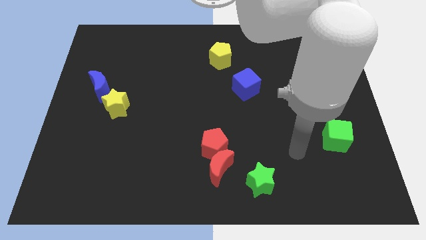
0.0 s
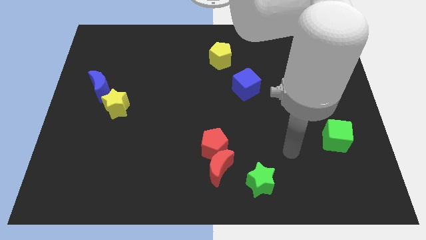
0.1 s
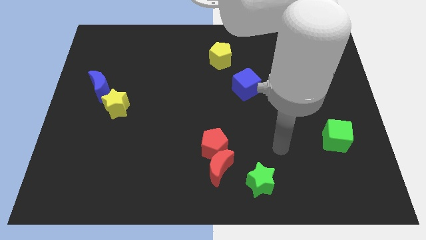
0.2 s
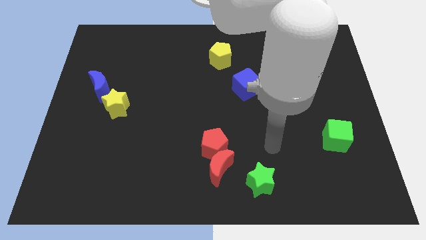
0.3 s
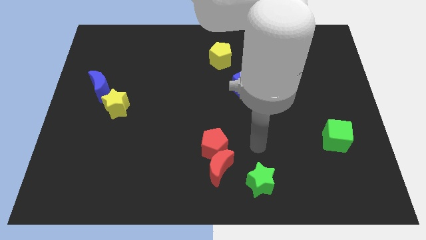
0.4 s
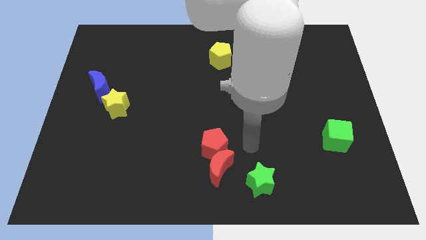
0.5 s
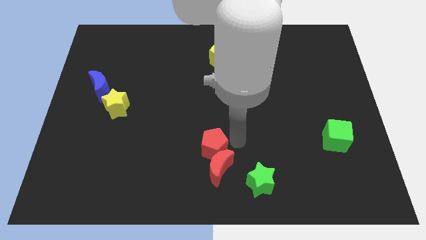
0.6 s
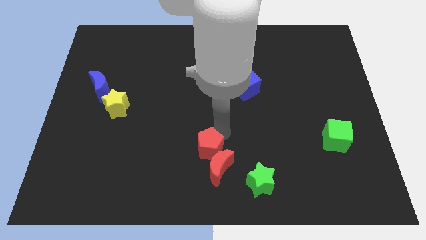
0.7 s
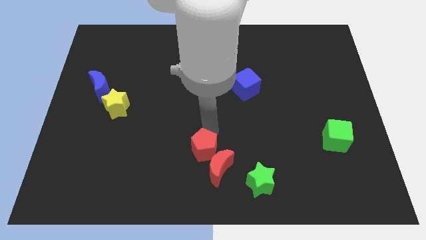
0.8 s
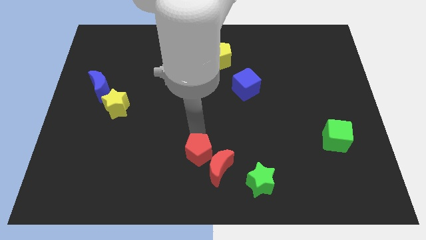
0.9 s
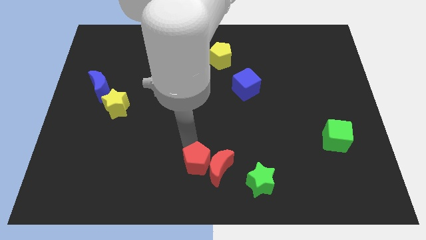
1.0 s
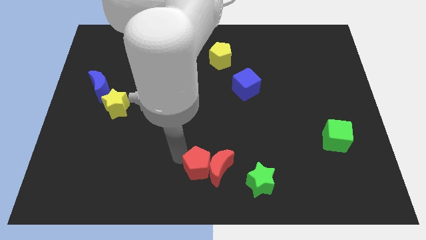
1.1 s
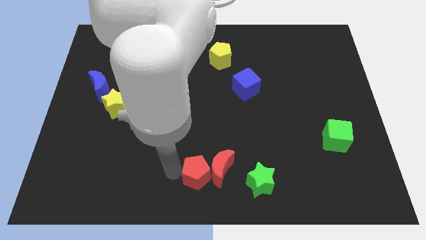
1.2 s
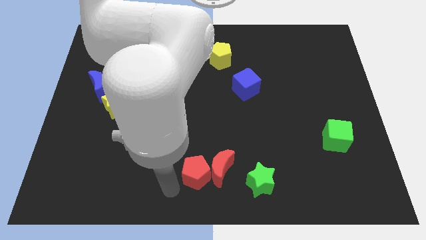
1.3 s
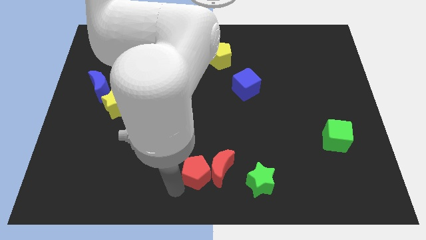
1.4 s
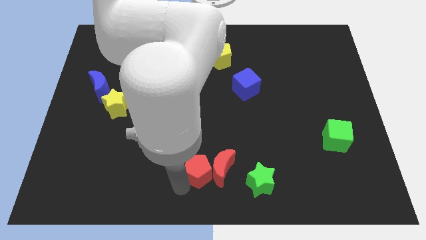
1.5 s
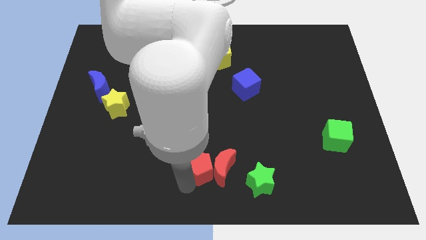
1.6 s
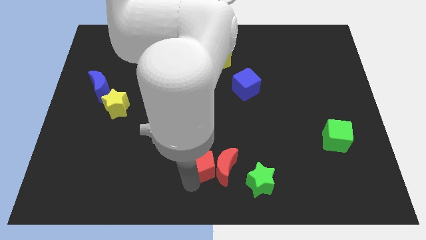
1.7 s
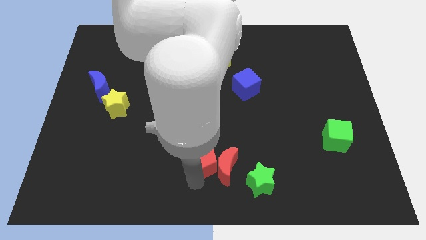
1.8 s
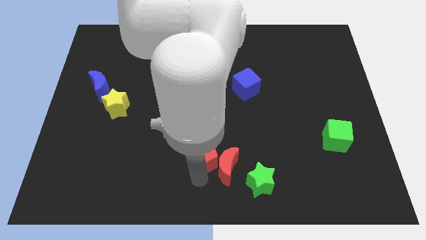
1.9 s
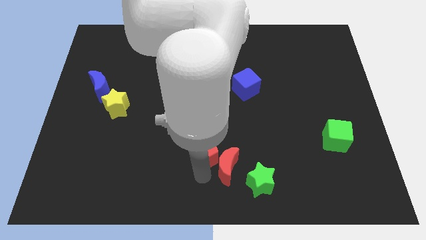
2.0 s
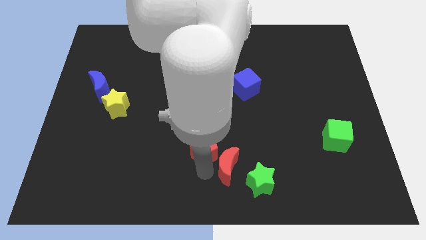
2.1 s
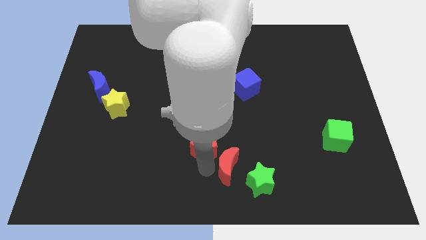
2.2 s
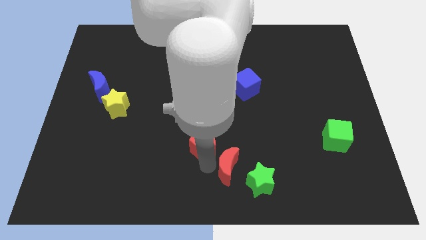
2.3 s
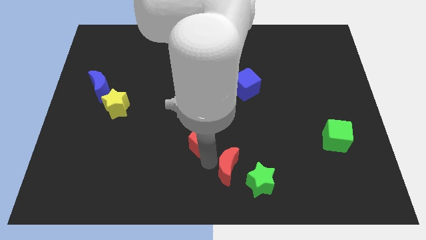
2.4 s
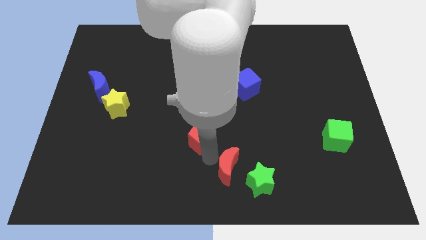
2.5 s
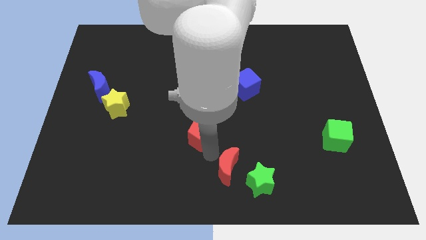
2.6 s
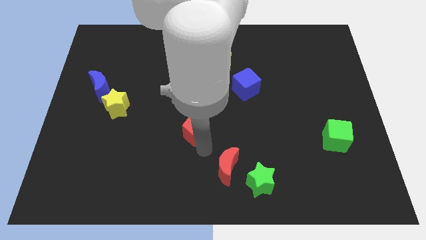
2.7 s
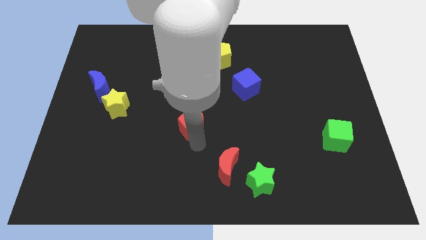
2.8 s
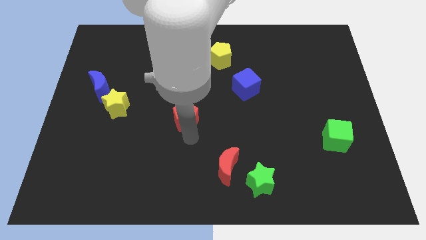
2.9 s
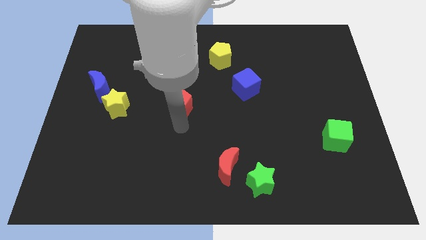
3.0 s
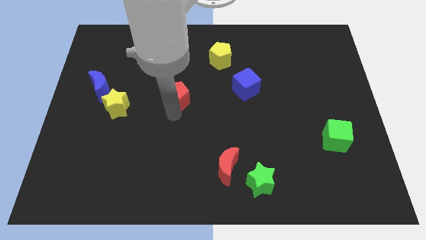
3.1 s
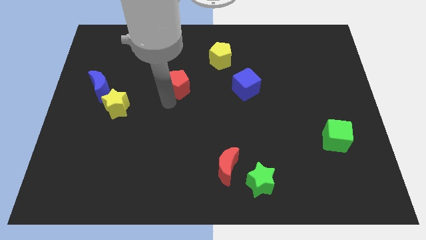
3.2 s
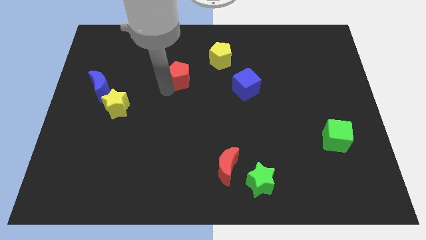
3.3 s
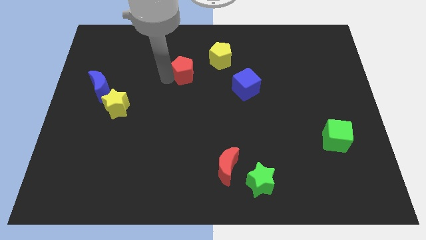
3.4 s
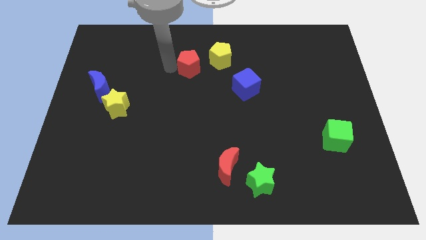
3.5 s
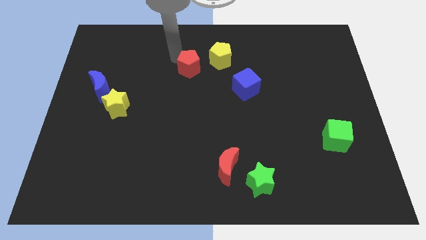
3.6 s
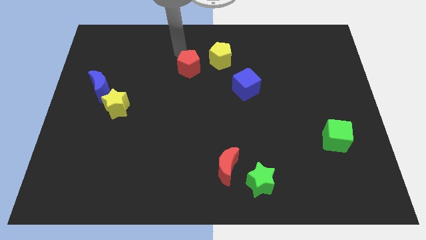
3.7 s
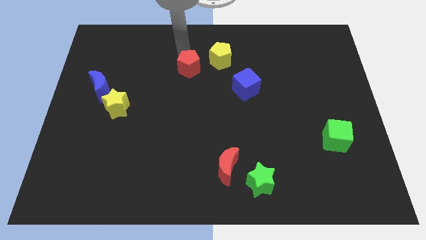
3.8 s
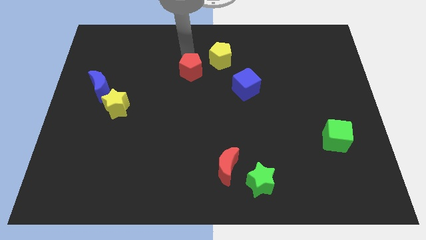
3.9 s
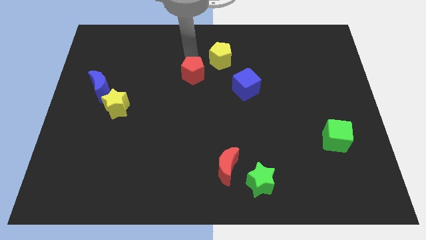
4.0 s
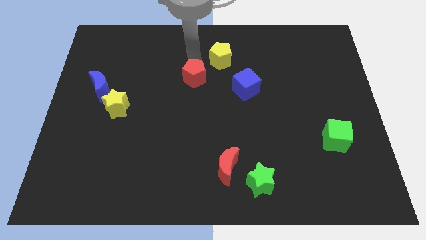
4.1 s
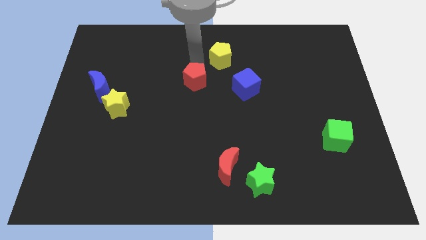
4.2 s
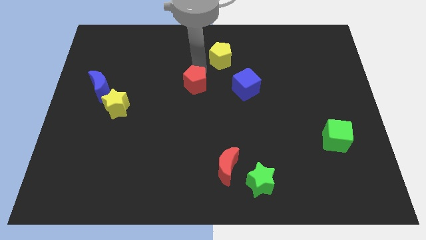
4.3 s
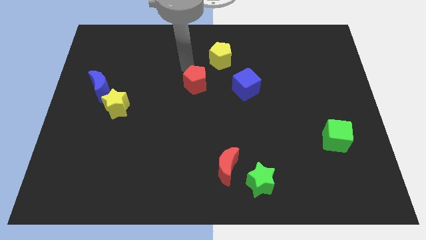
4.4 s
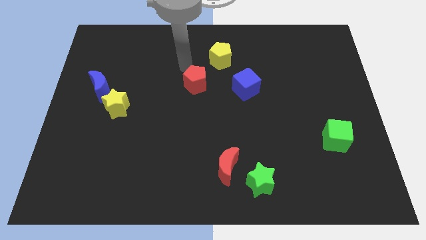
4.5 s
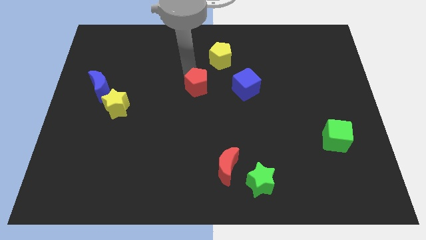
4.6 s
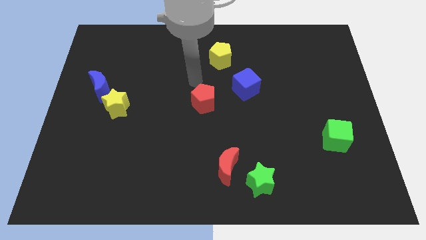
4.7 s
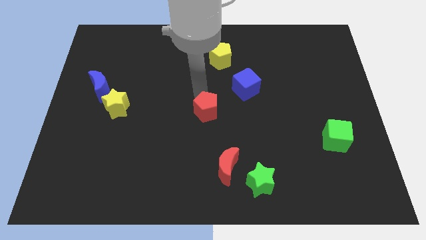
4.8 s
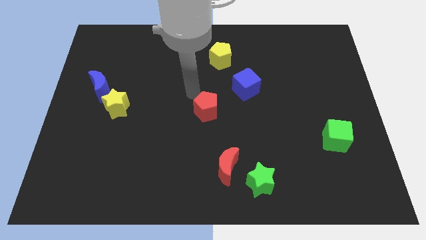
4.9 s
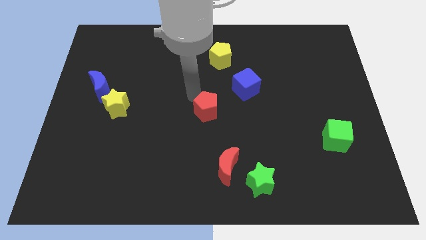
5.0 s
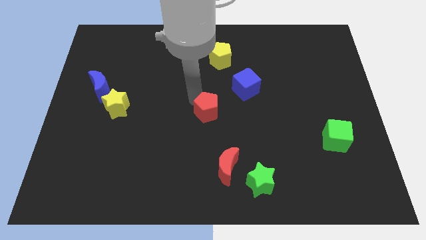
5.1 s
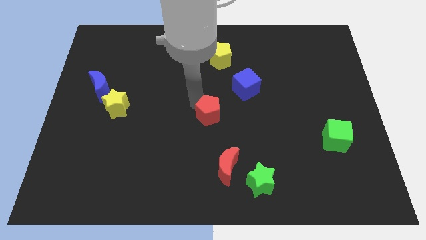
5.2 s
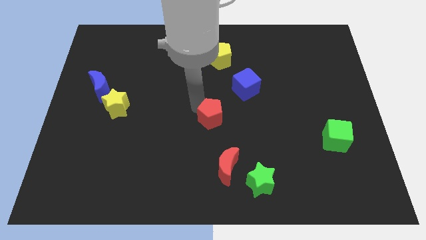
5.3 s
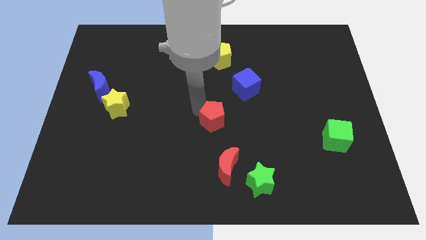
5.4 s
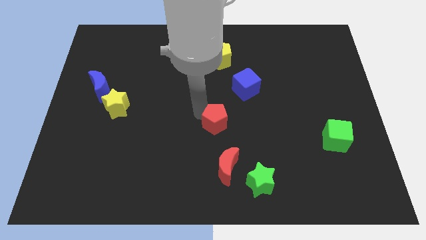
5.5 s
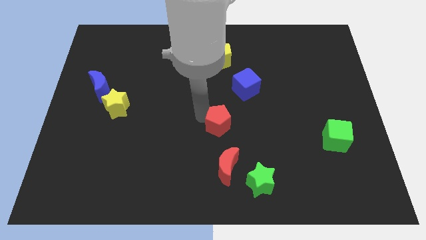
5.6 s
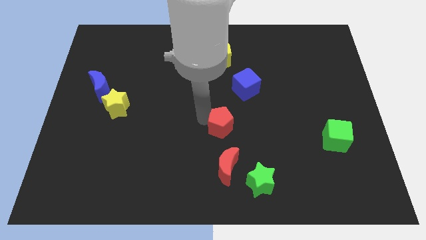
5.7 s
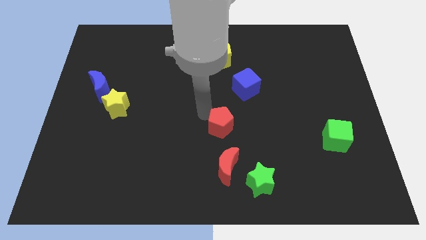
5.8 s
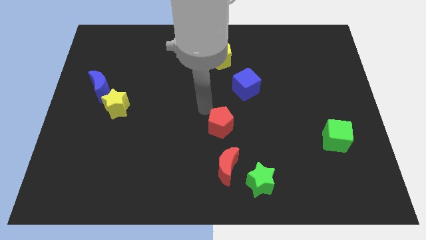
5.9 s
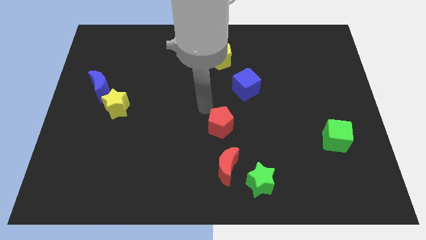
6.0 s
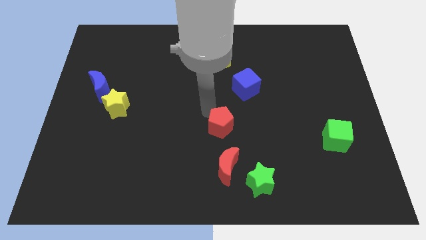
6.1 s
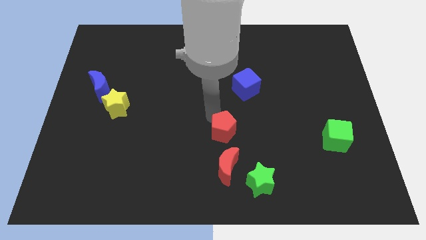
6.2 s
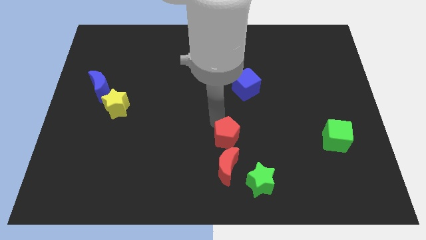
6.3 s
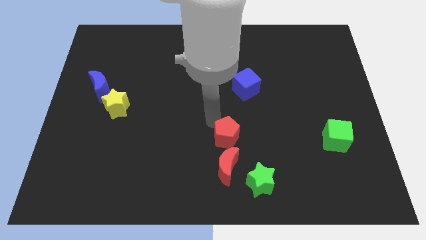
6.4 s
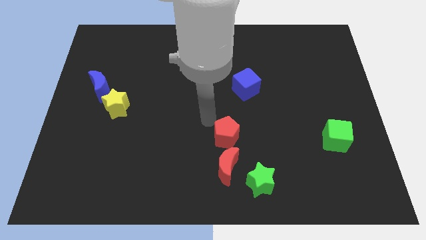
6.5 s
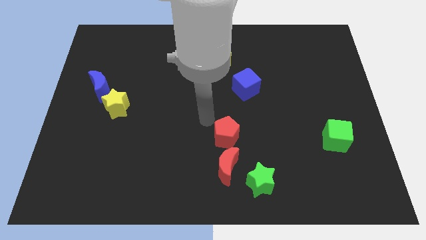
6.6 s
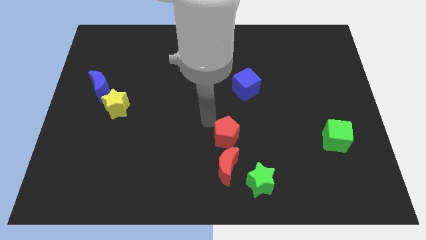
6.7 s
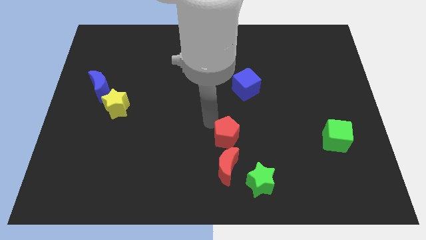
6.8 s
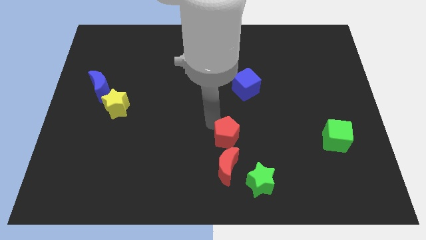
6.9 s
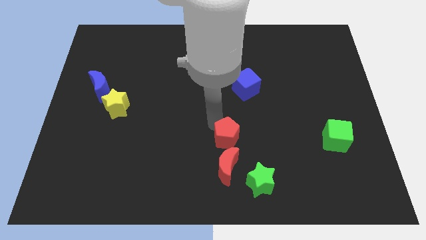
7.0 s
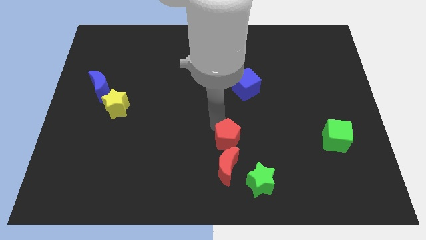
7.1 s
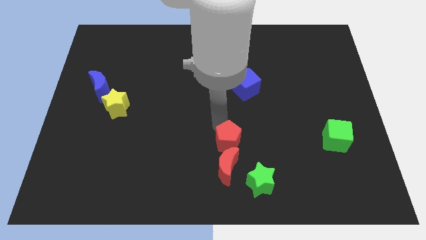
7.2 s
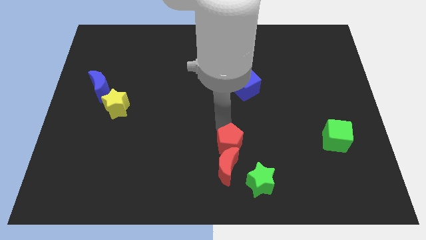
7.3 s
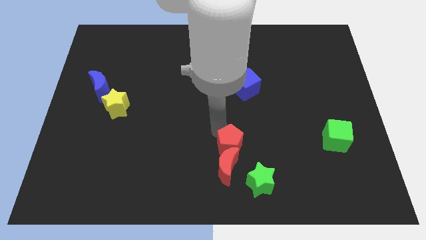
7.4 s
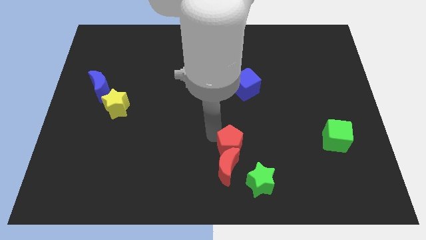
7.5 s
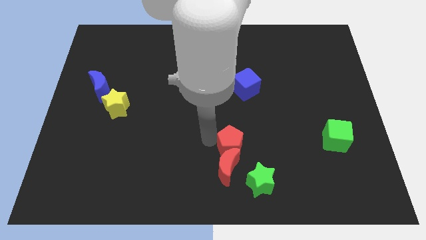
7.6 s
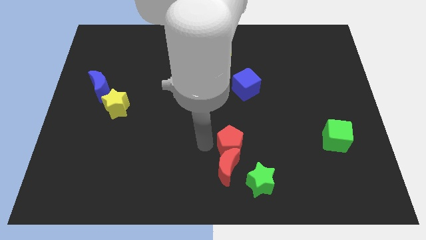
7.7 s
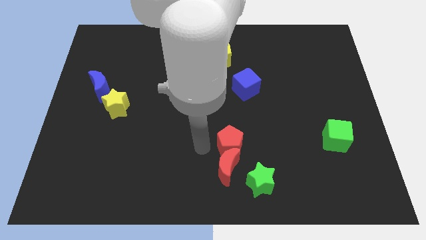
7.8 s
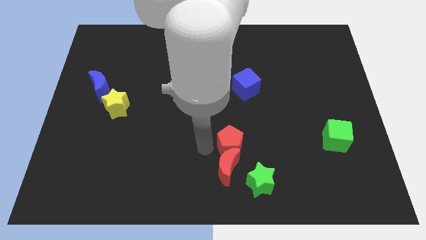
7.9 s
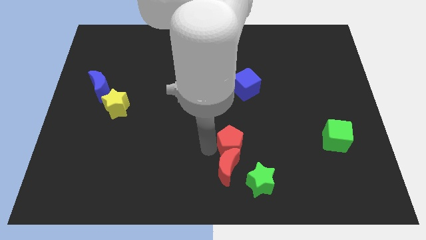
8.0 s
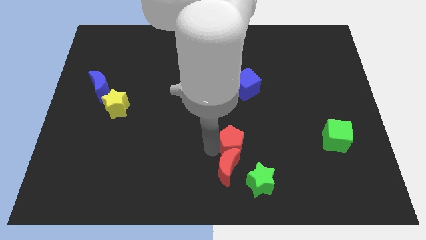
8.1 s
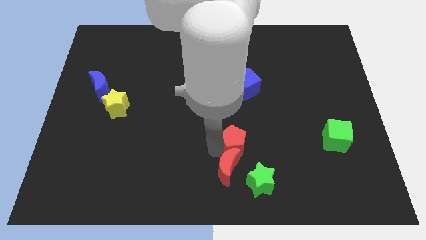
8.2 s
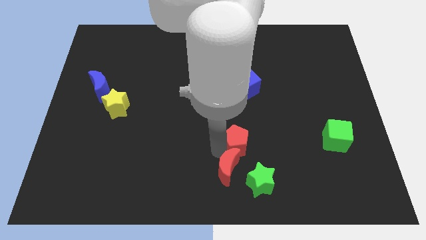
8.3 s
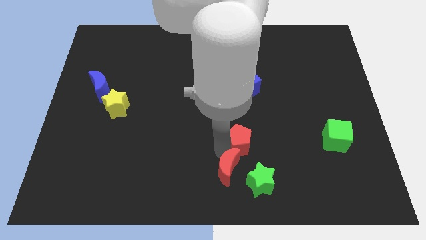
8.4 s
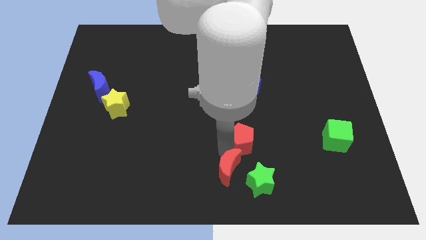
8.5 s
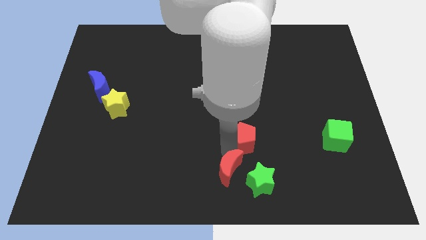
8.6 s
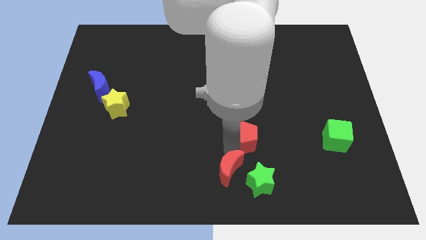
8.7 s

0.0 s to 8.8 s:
move the red pentagon to the right a bit
